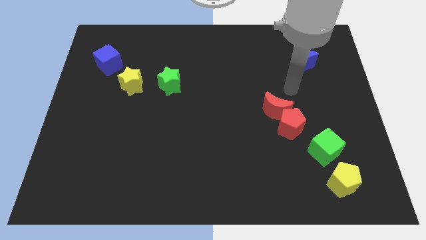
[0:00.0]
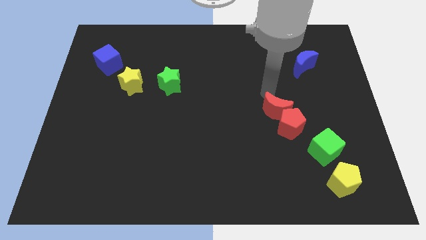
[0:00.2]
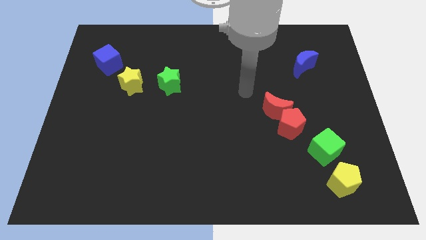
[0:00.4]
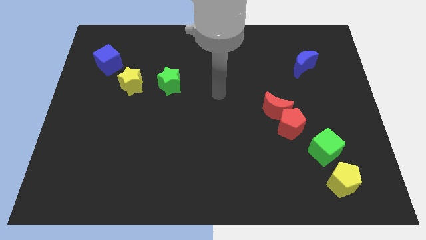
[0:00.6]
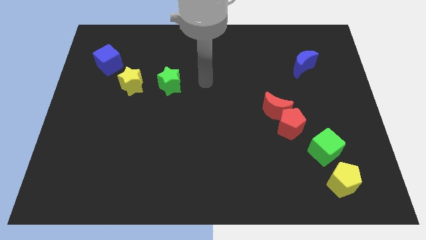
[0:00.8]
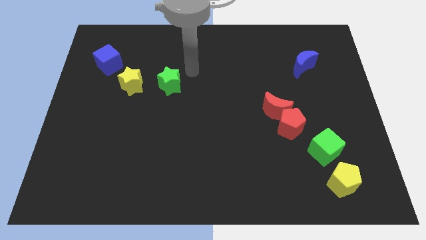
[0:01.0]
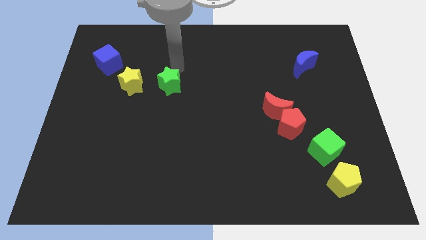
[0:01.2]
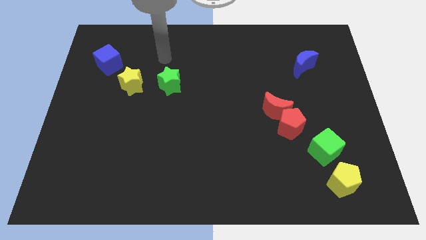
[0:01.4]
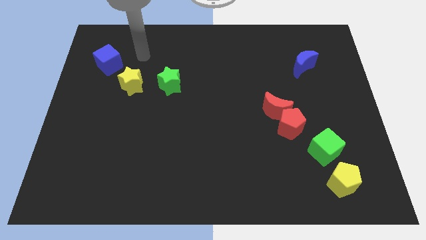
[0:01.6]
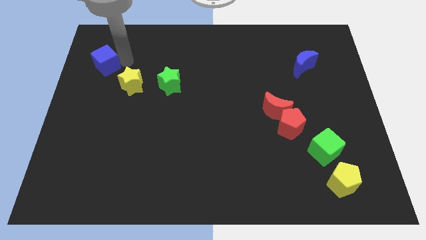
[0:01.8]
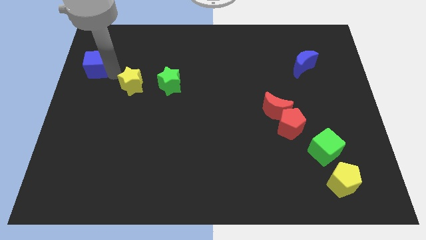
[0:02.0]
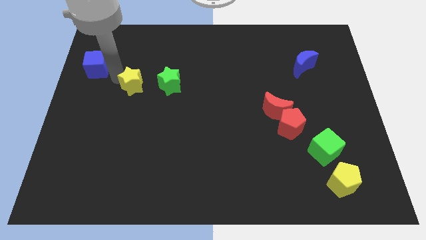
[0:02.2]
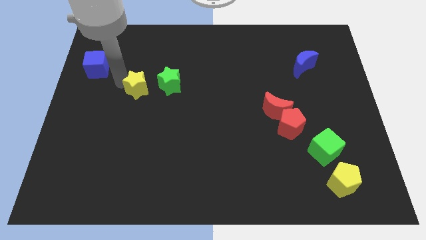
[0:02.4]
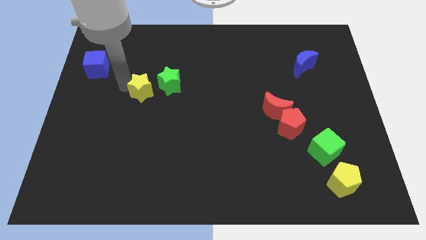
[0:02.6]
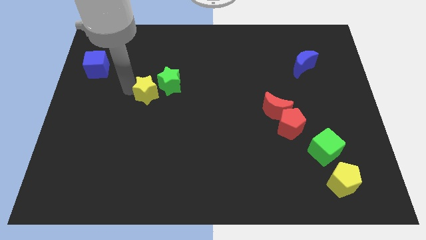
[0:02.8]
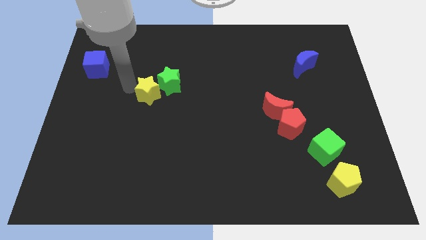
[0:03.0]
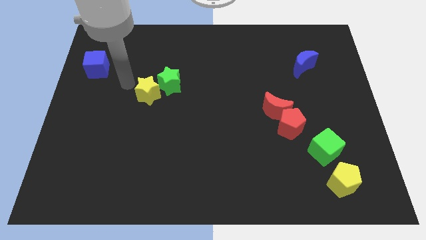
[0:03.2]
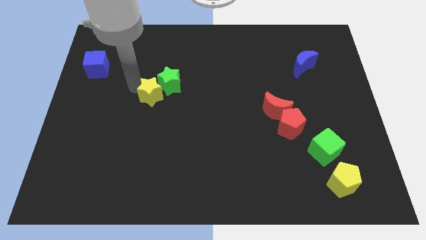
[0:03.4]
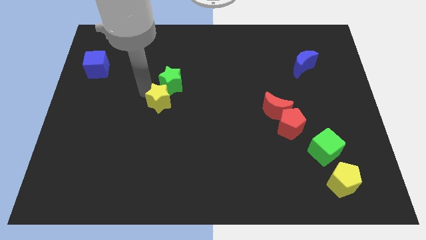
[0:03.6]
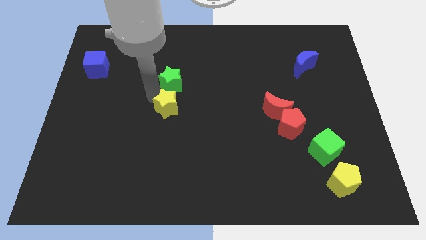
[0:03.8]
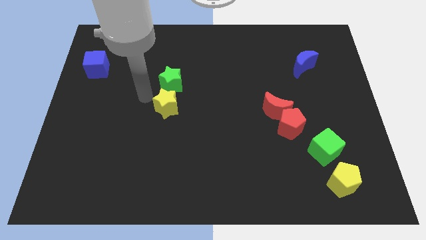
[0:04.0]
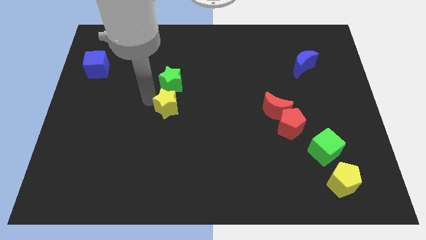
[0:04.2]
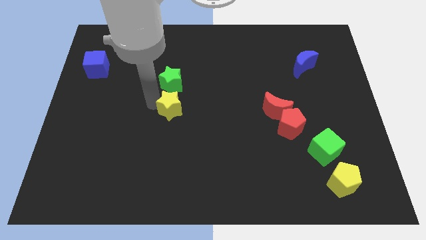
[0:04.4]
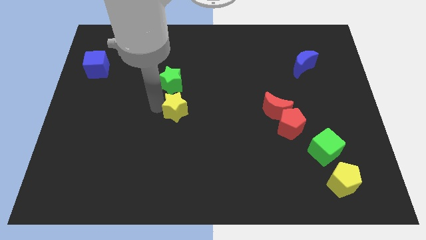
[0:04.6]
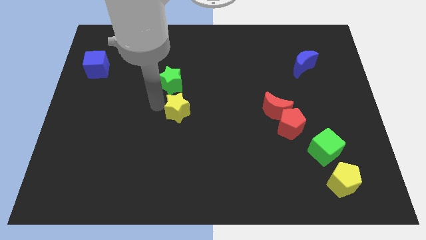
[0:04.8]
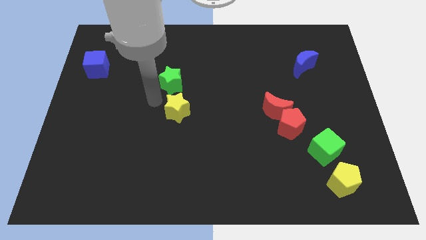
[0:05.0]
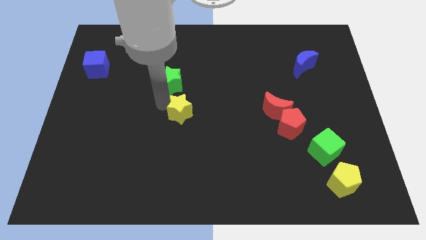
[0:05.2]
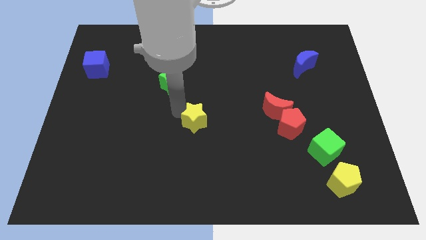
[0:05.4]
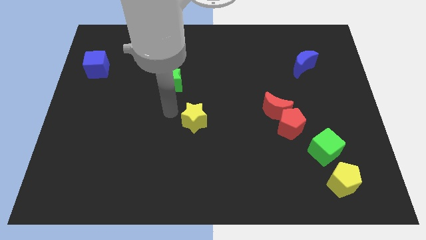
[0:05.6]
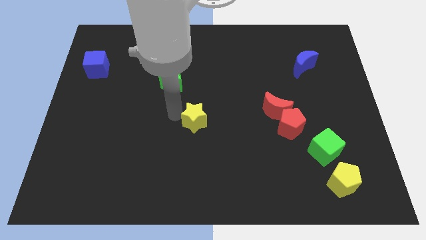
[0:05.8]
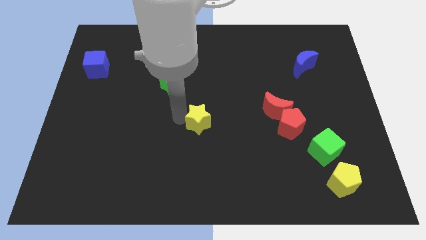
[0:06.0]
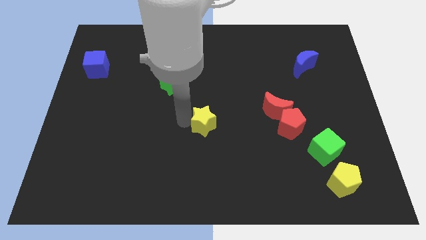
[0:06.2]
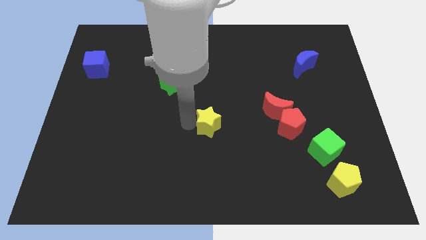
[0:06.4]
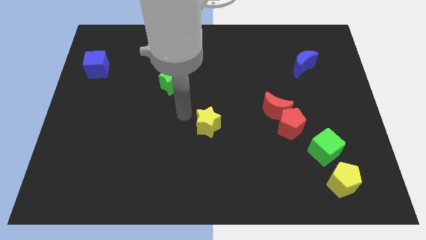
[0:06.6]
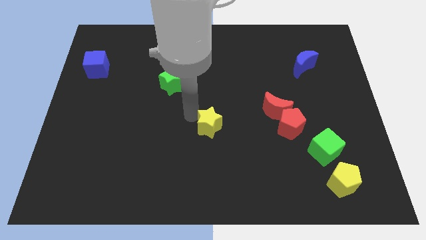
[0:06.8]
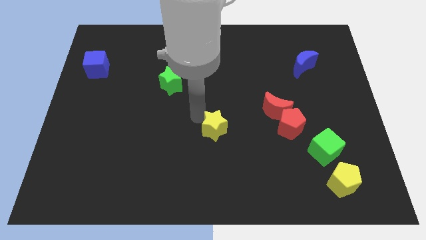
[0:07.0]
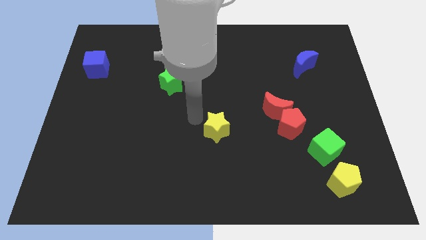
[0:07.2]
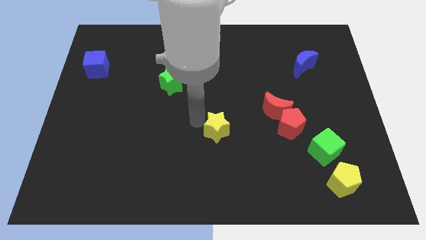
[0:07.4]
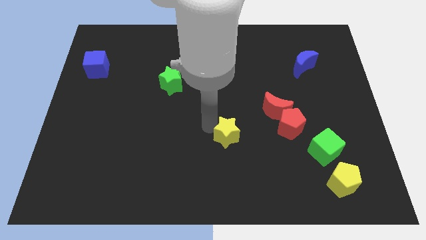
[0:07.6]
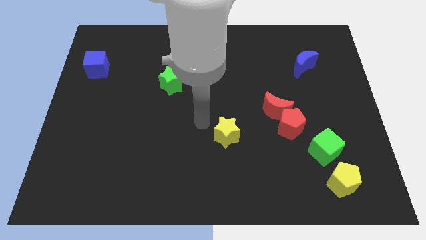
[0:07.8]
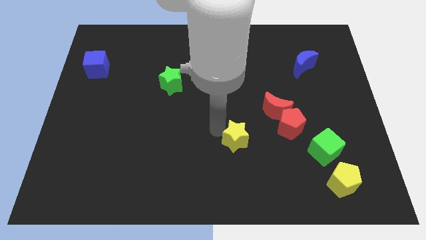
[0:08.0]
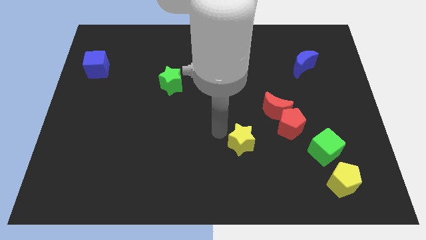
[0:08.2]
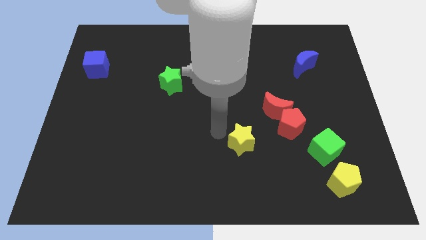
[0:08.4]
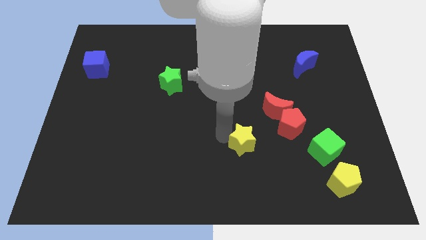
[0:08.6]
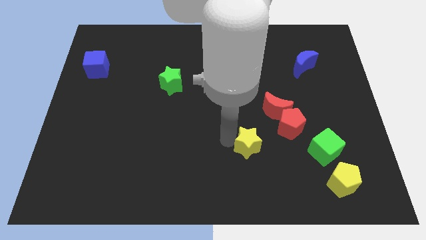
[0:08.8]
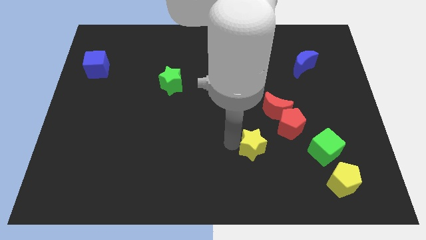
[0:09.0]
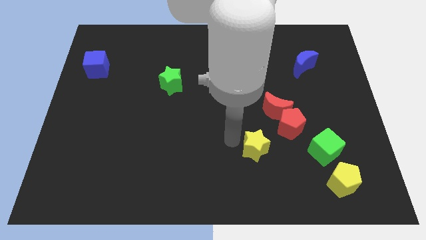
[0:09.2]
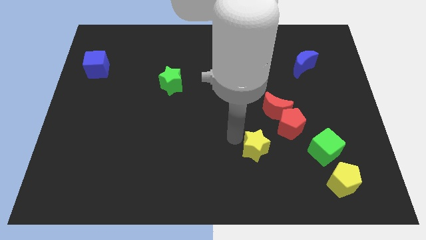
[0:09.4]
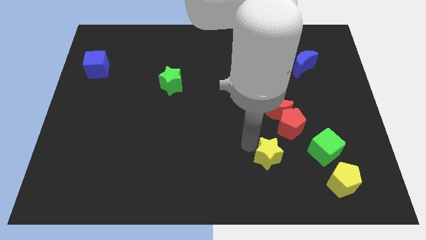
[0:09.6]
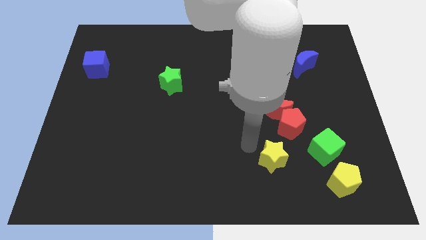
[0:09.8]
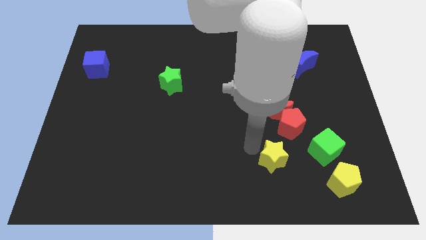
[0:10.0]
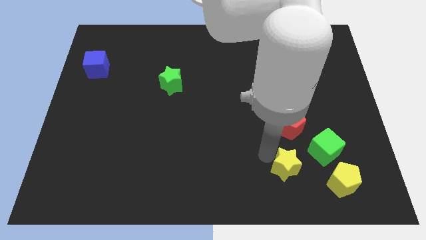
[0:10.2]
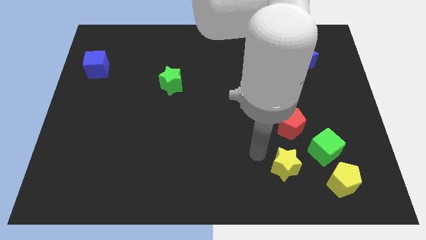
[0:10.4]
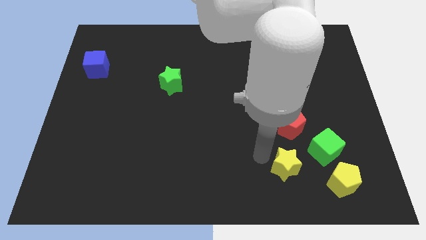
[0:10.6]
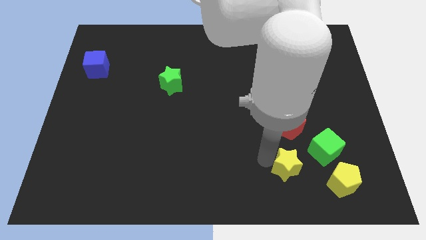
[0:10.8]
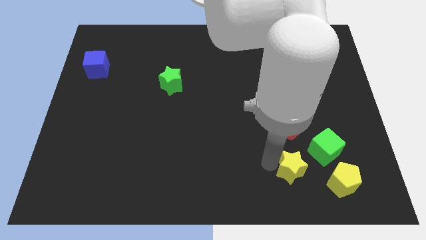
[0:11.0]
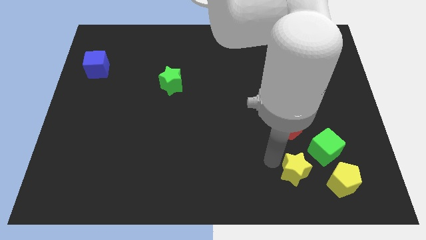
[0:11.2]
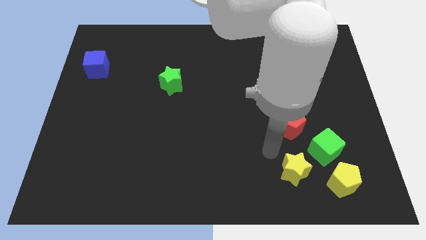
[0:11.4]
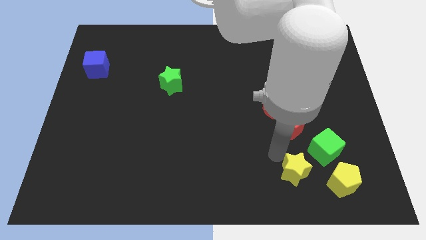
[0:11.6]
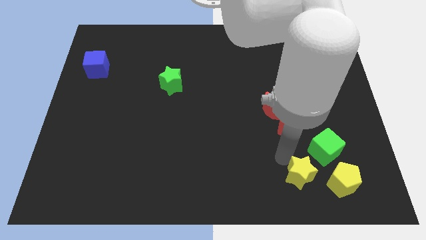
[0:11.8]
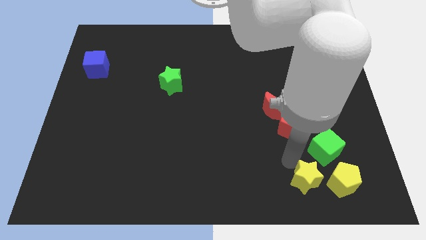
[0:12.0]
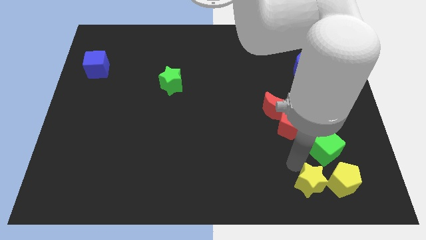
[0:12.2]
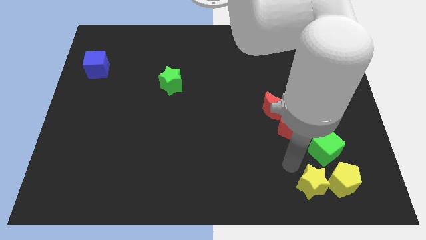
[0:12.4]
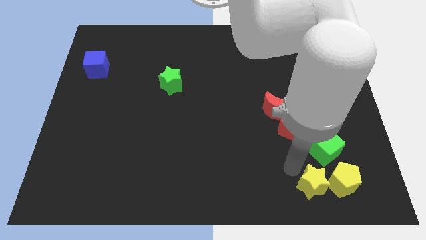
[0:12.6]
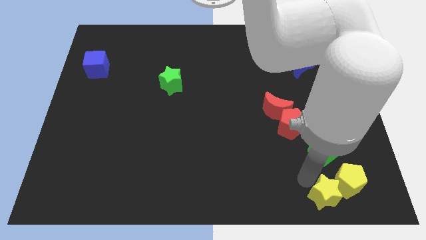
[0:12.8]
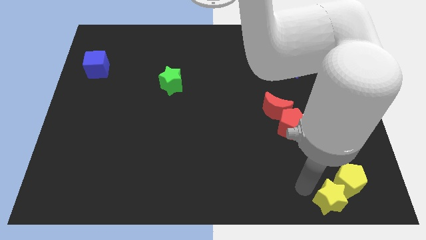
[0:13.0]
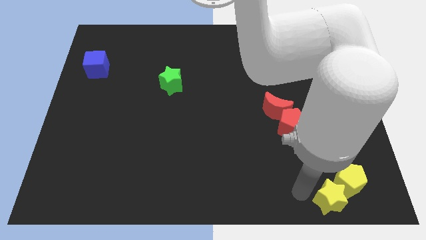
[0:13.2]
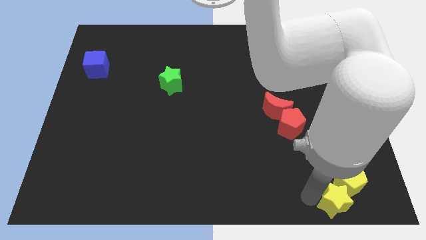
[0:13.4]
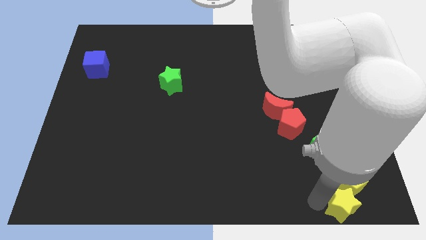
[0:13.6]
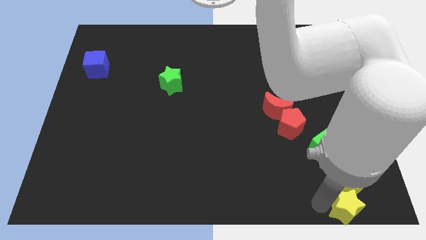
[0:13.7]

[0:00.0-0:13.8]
slide the yellow star to the lower right corner
